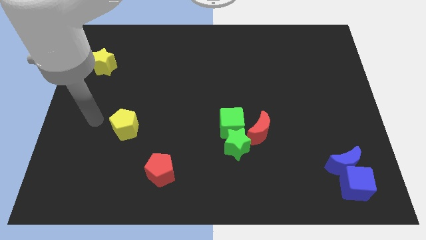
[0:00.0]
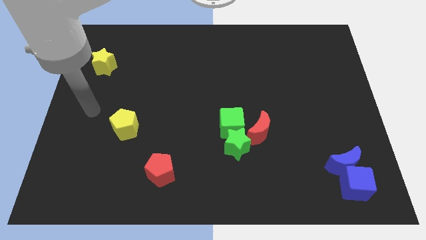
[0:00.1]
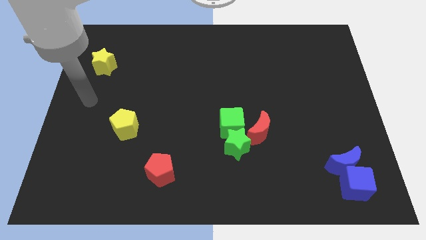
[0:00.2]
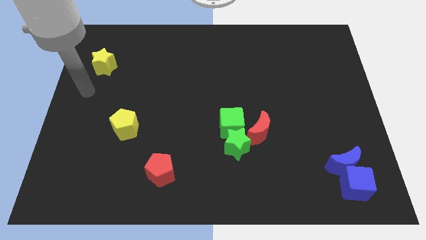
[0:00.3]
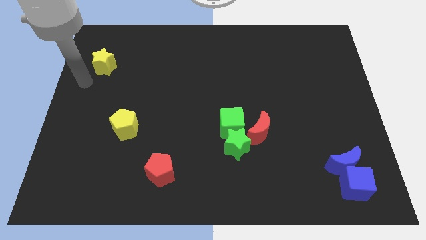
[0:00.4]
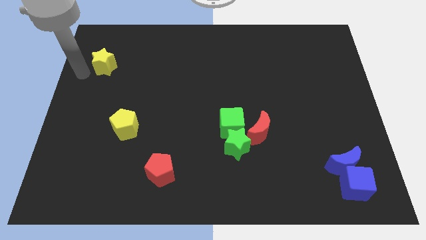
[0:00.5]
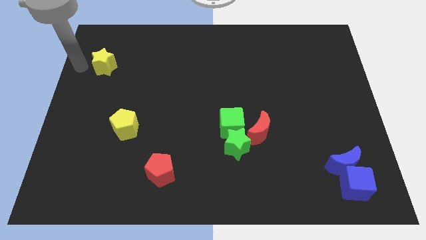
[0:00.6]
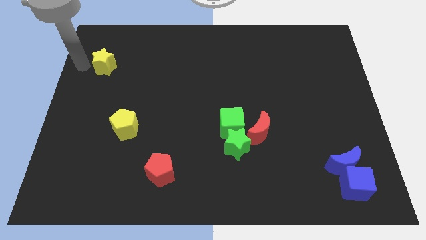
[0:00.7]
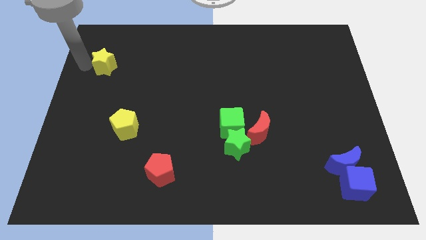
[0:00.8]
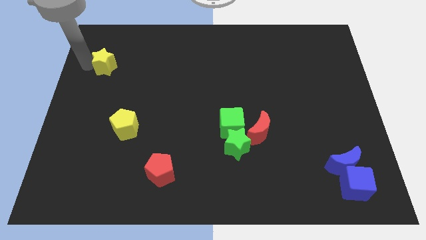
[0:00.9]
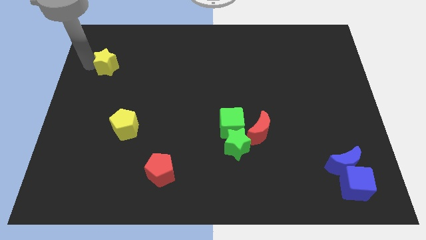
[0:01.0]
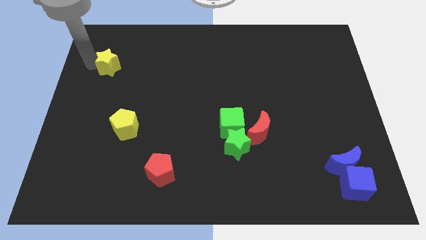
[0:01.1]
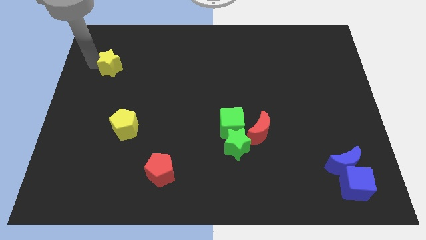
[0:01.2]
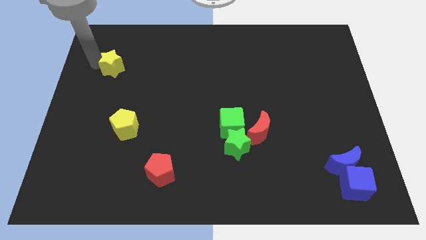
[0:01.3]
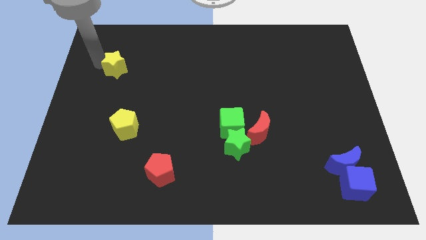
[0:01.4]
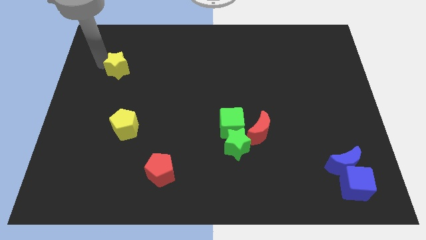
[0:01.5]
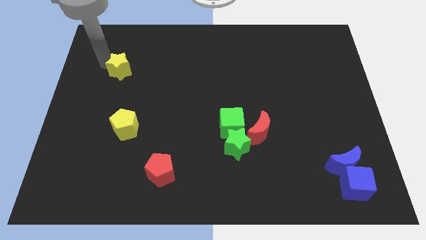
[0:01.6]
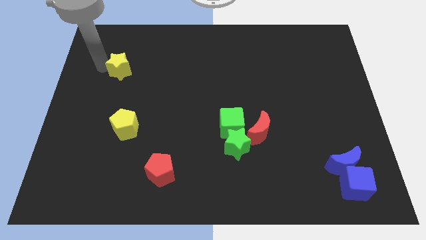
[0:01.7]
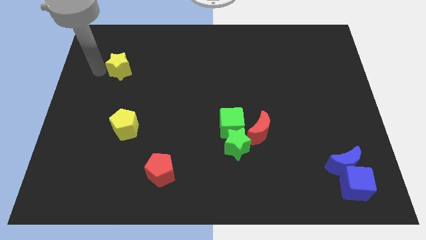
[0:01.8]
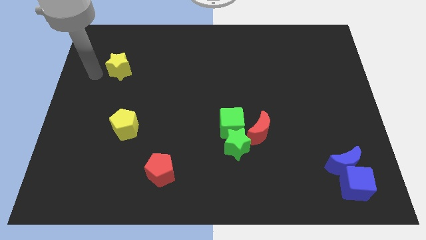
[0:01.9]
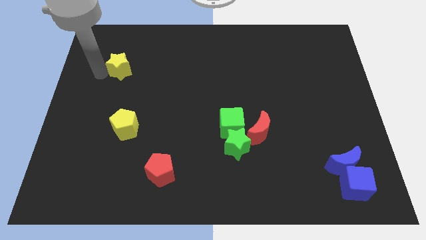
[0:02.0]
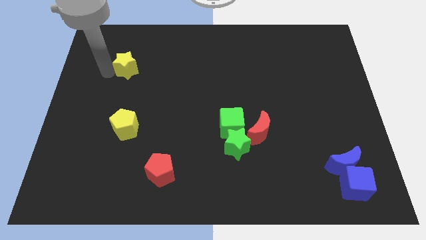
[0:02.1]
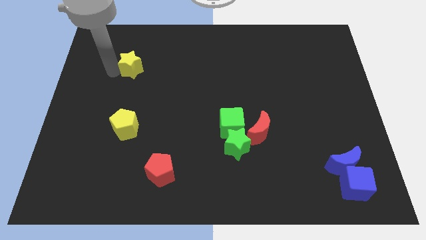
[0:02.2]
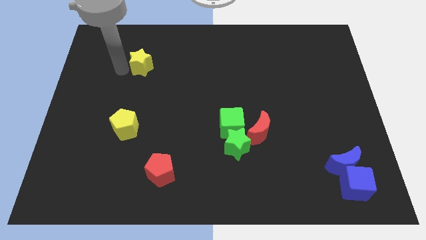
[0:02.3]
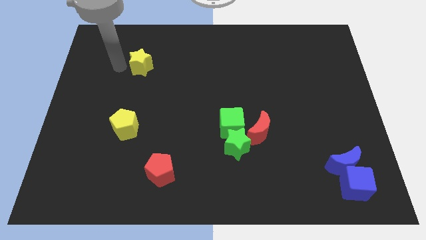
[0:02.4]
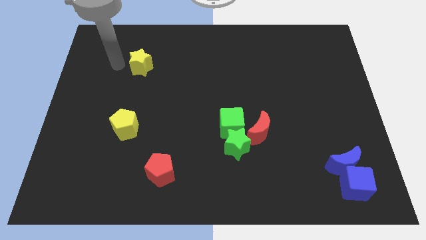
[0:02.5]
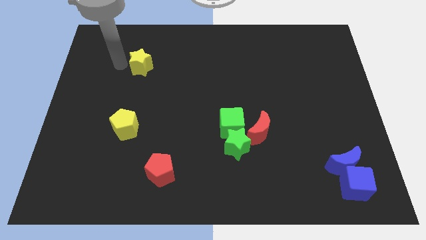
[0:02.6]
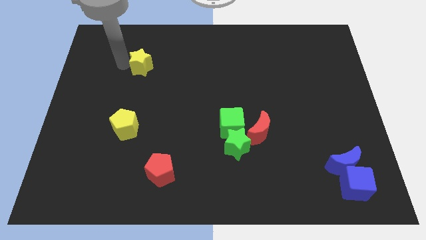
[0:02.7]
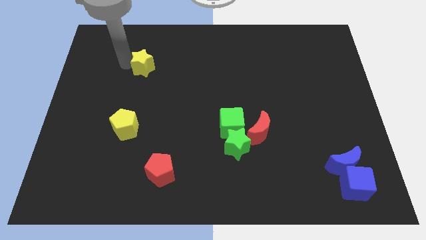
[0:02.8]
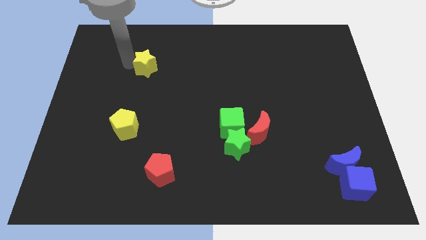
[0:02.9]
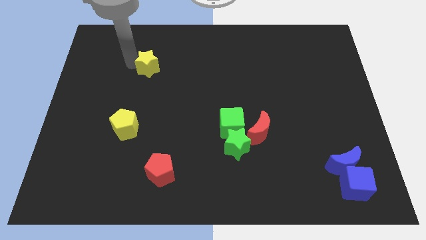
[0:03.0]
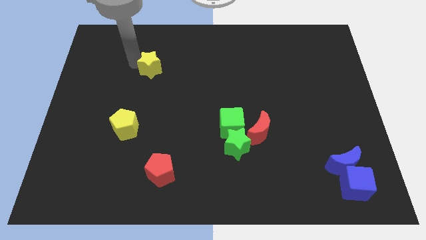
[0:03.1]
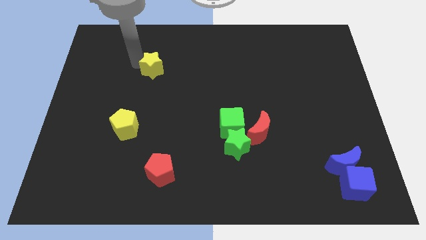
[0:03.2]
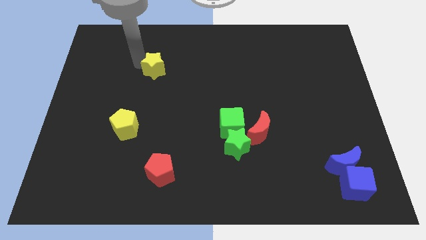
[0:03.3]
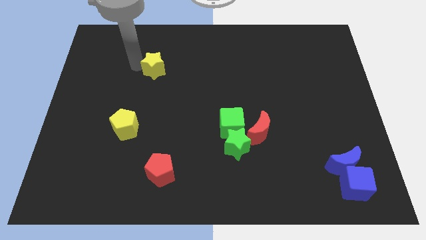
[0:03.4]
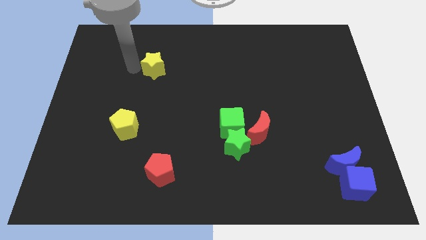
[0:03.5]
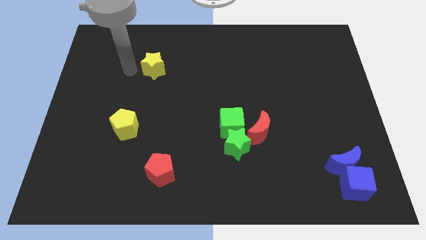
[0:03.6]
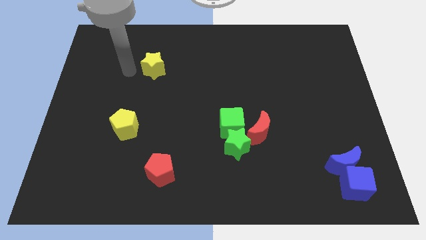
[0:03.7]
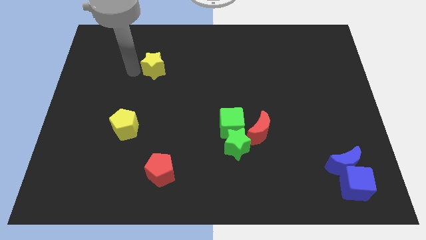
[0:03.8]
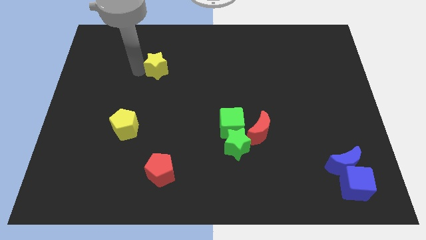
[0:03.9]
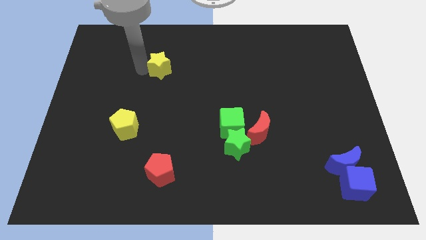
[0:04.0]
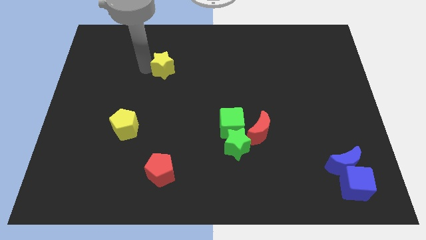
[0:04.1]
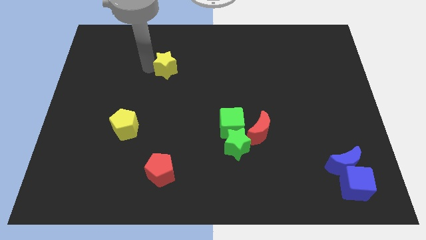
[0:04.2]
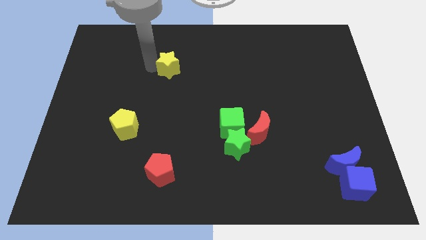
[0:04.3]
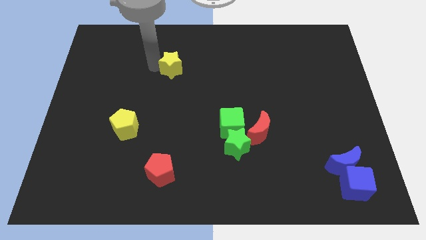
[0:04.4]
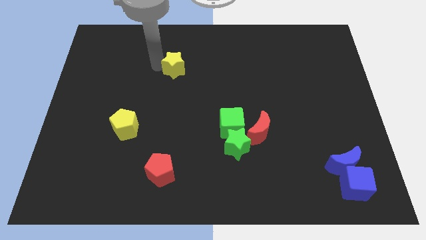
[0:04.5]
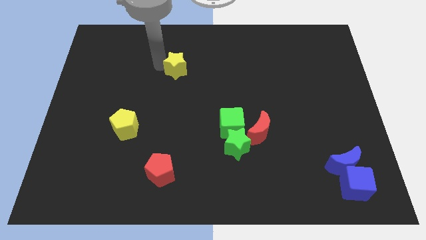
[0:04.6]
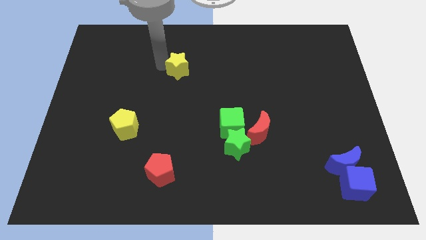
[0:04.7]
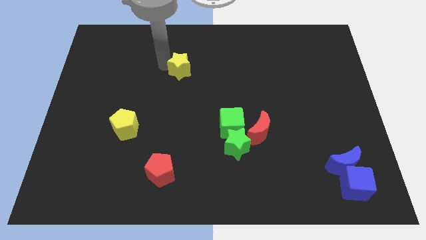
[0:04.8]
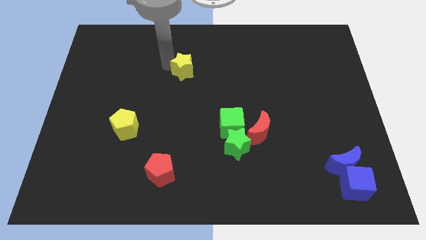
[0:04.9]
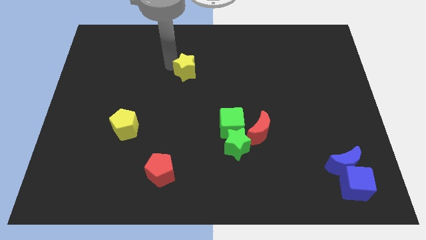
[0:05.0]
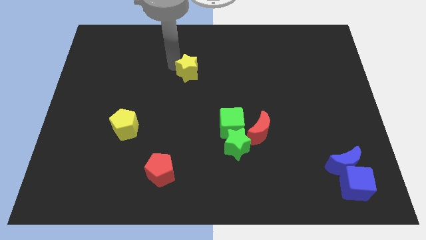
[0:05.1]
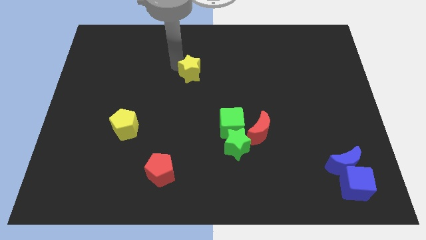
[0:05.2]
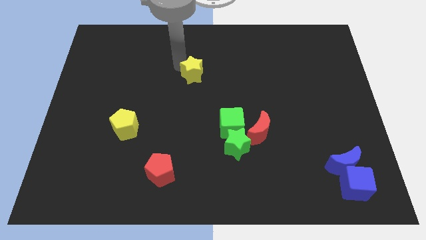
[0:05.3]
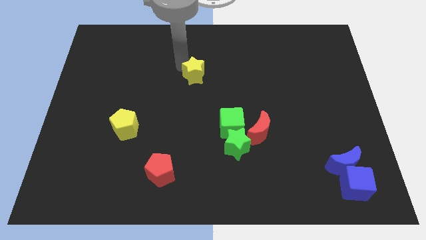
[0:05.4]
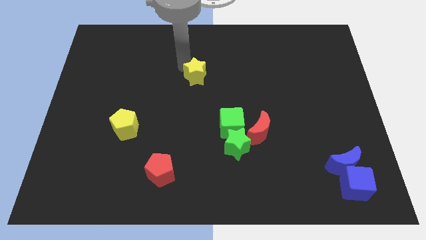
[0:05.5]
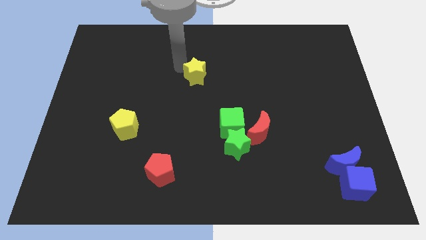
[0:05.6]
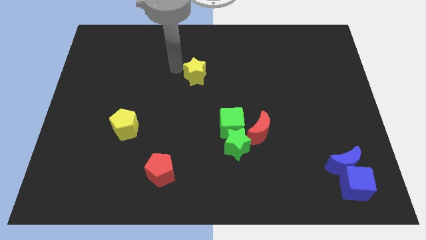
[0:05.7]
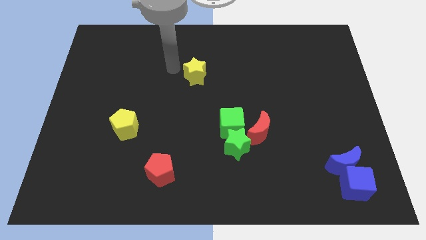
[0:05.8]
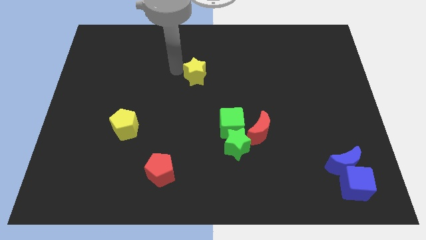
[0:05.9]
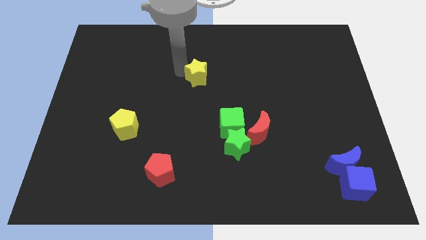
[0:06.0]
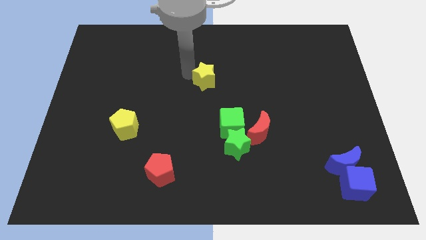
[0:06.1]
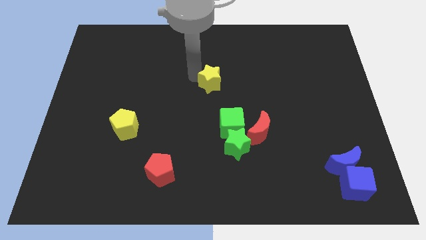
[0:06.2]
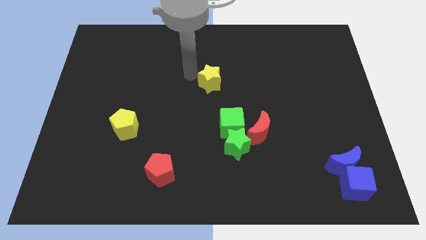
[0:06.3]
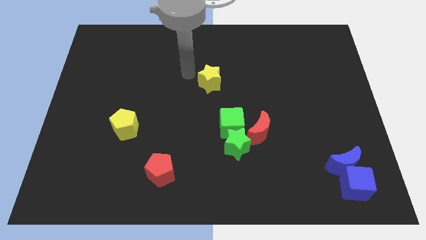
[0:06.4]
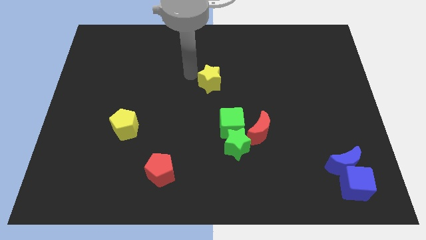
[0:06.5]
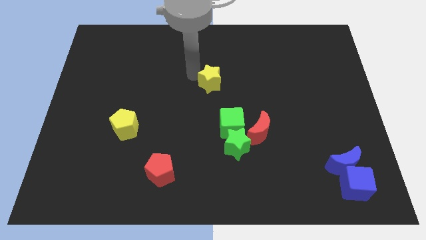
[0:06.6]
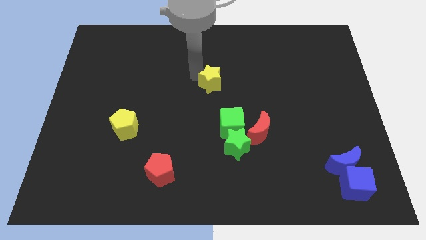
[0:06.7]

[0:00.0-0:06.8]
move the yellow star above the green cube

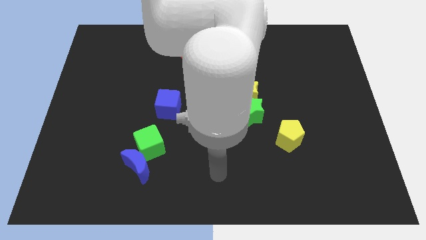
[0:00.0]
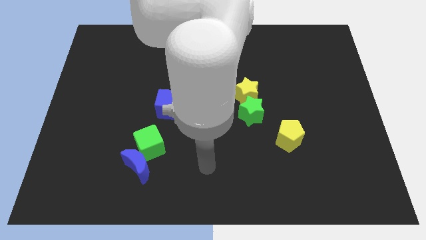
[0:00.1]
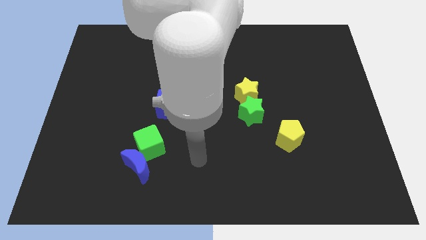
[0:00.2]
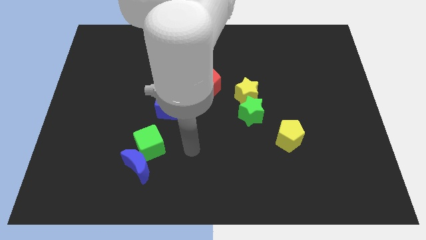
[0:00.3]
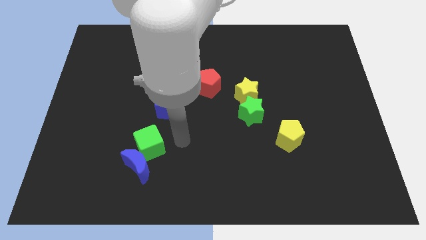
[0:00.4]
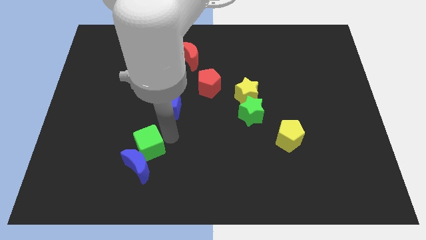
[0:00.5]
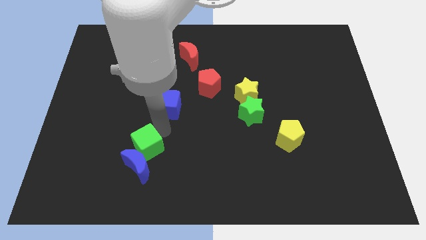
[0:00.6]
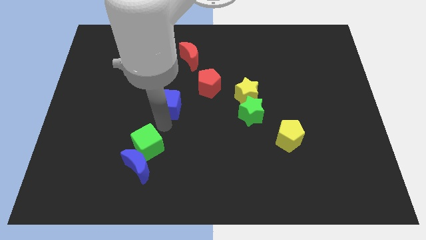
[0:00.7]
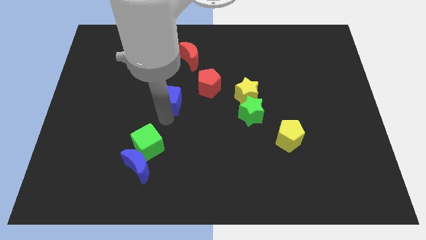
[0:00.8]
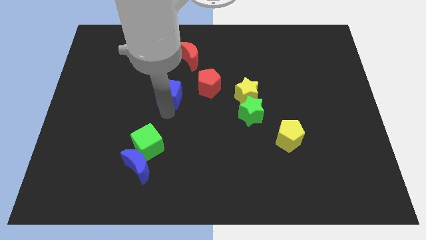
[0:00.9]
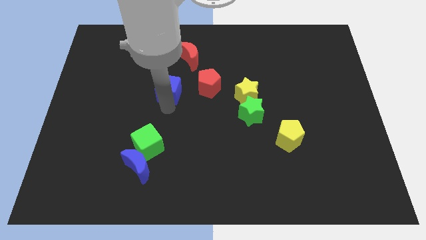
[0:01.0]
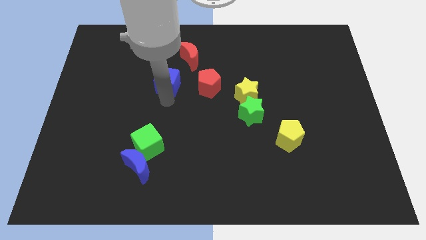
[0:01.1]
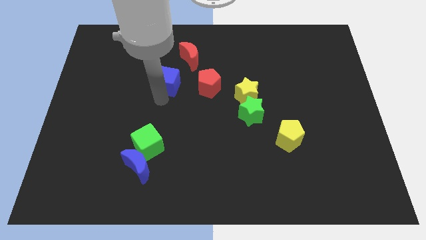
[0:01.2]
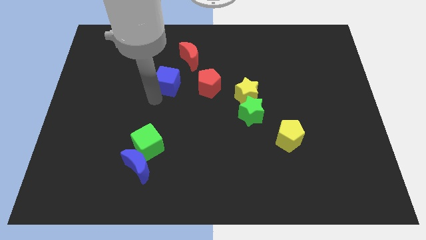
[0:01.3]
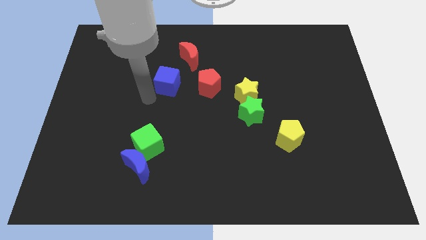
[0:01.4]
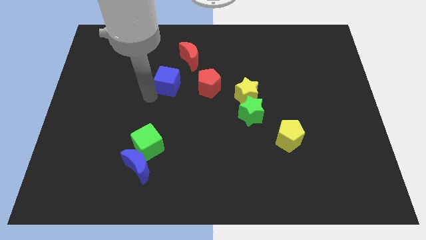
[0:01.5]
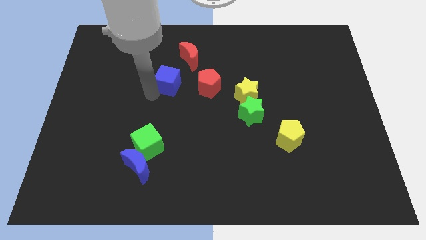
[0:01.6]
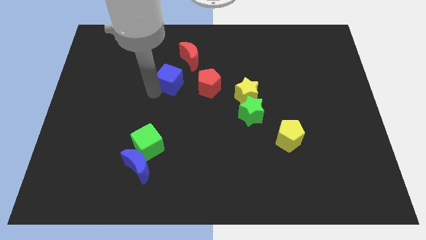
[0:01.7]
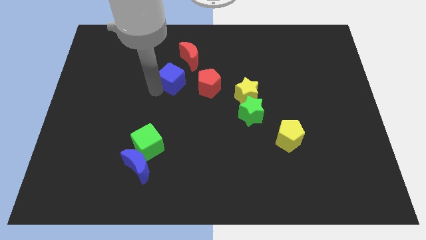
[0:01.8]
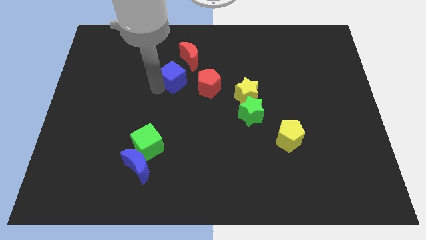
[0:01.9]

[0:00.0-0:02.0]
push the blue cube to the top left of the red pentagon
